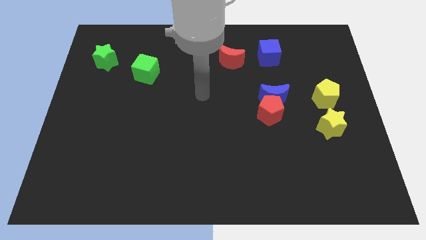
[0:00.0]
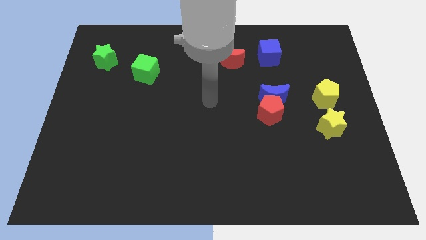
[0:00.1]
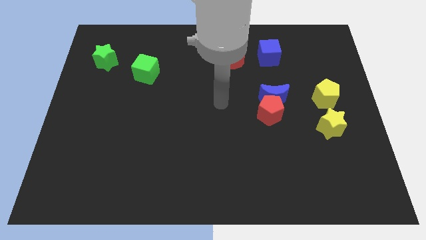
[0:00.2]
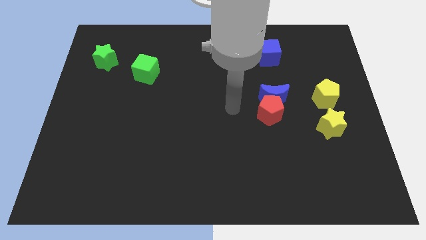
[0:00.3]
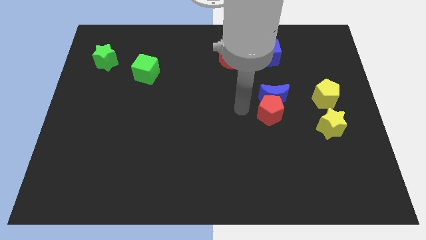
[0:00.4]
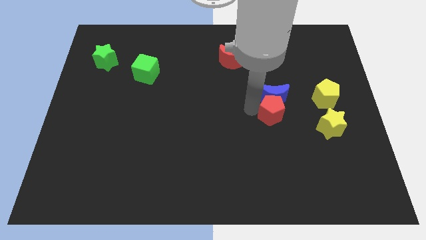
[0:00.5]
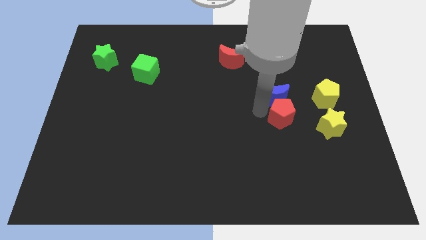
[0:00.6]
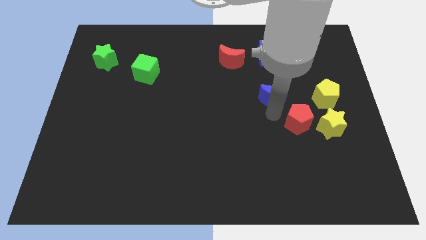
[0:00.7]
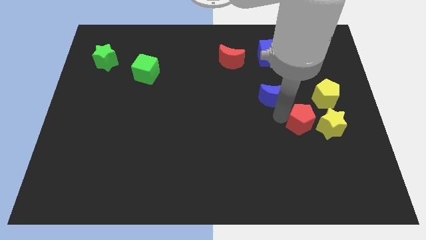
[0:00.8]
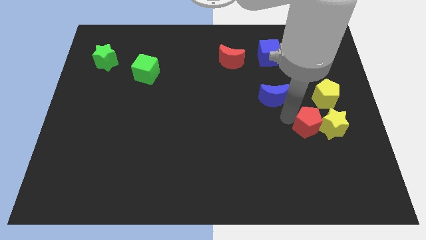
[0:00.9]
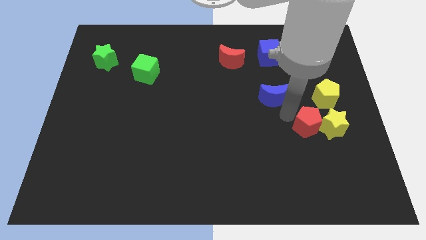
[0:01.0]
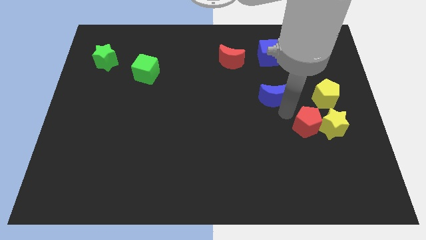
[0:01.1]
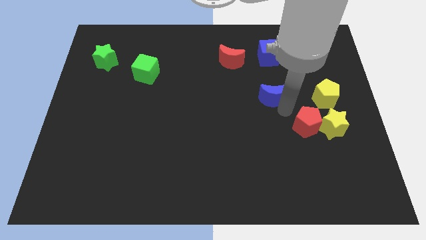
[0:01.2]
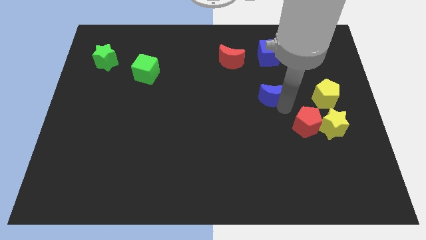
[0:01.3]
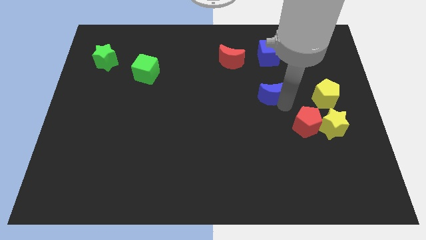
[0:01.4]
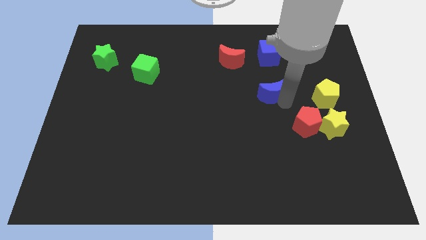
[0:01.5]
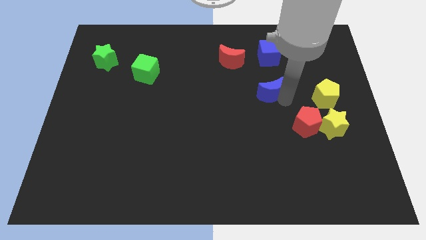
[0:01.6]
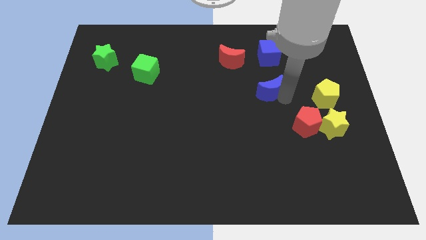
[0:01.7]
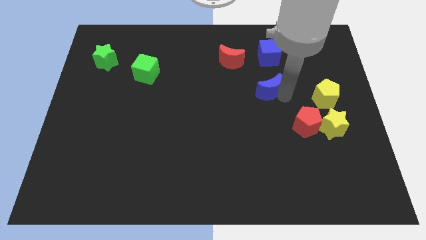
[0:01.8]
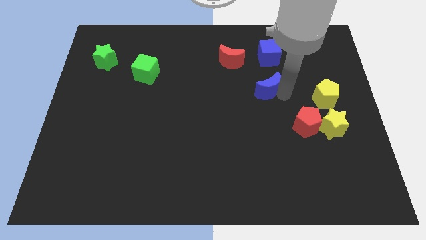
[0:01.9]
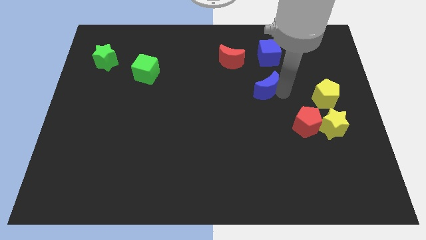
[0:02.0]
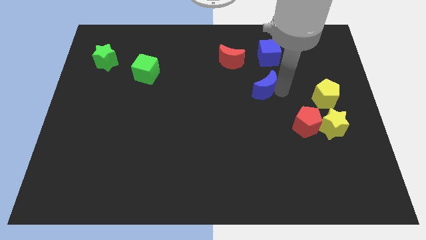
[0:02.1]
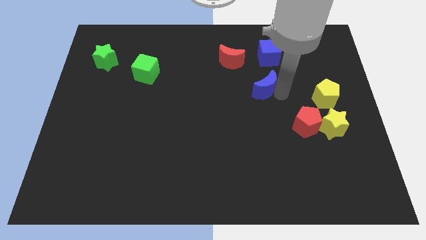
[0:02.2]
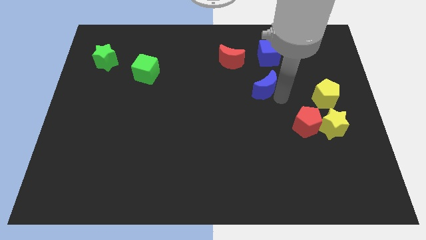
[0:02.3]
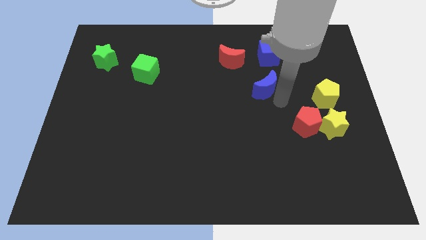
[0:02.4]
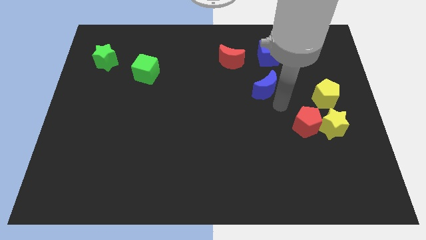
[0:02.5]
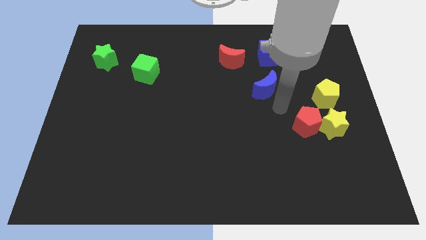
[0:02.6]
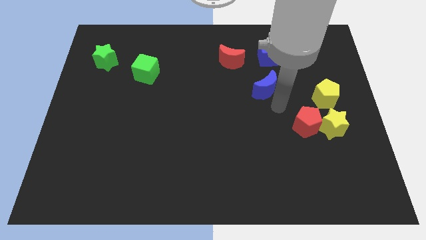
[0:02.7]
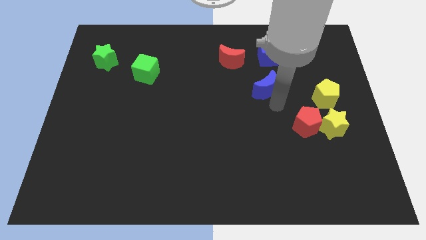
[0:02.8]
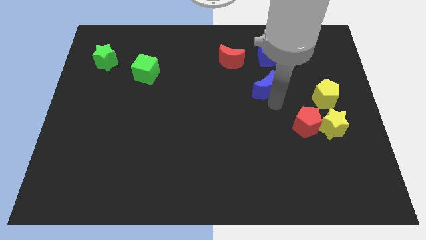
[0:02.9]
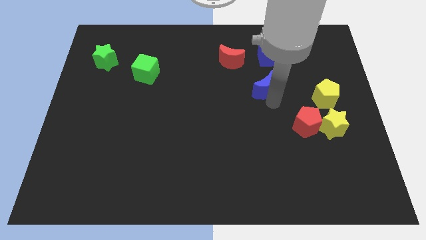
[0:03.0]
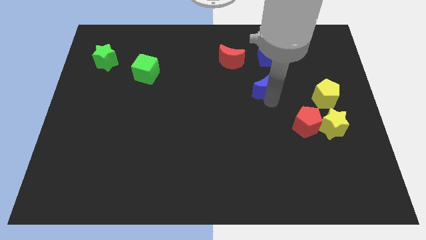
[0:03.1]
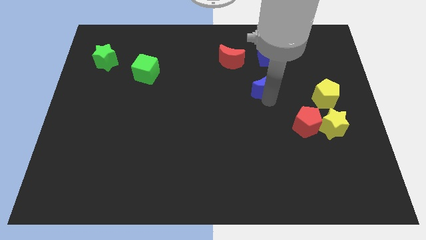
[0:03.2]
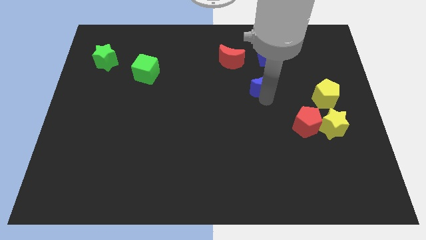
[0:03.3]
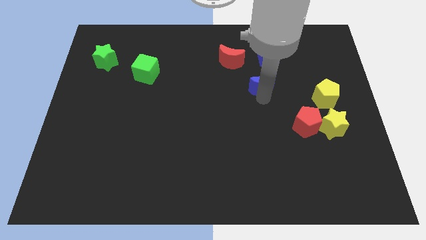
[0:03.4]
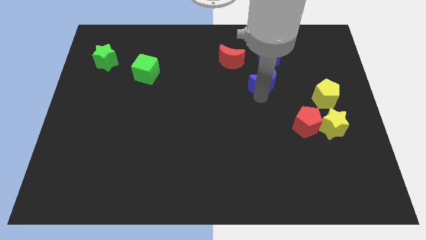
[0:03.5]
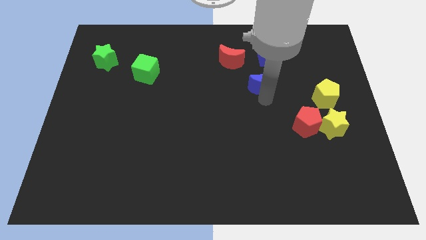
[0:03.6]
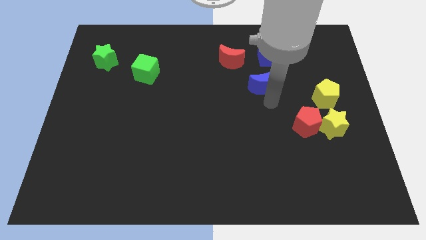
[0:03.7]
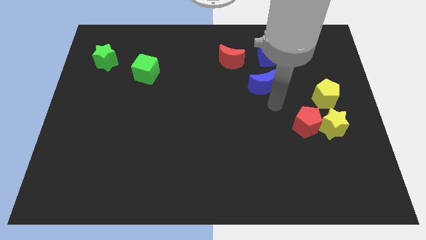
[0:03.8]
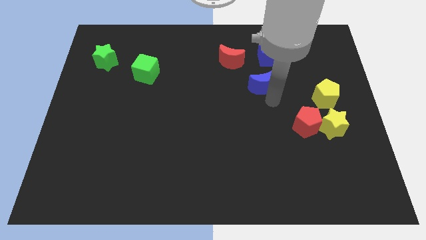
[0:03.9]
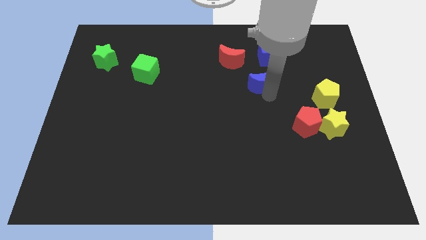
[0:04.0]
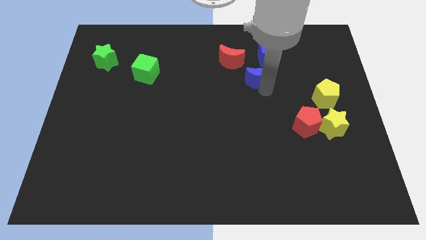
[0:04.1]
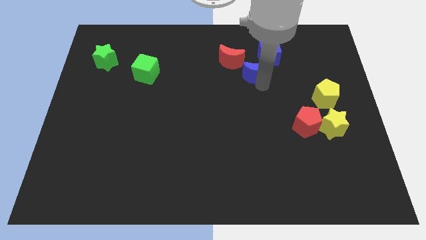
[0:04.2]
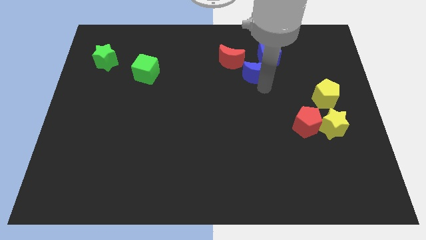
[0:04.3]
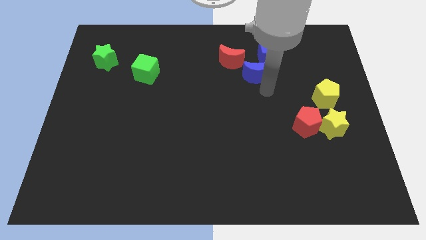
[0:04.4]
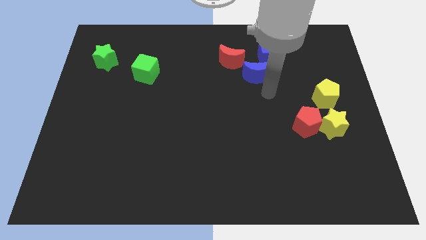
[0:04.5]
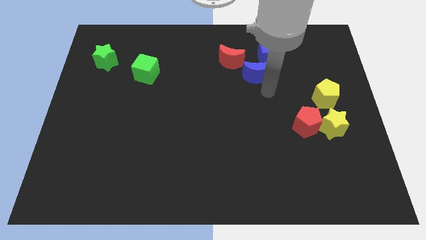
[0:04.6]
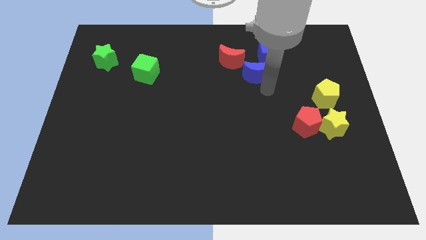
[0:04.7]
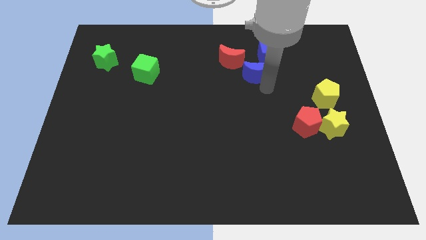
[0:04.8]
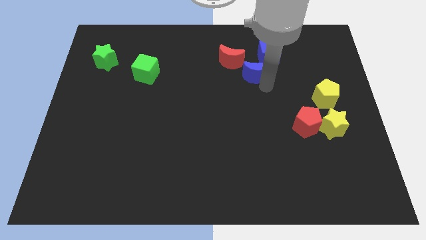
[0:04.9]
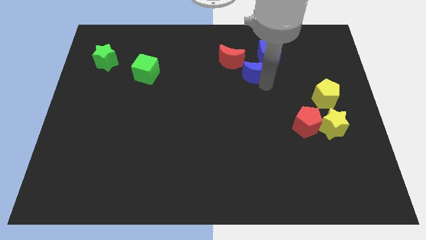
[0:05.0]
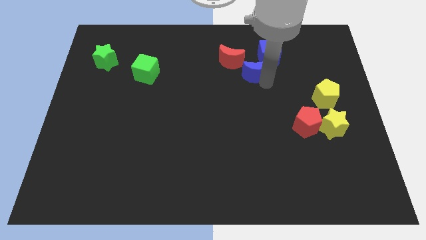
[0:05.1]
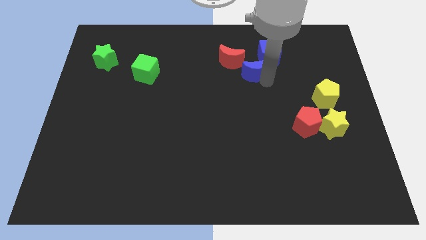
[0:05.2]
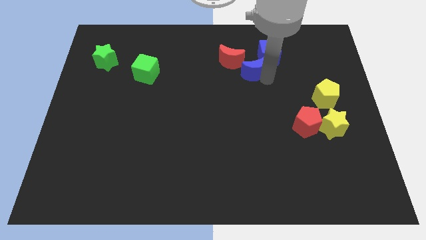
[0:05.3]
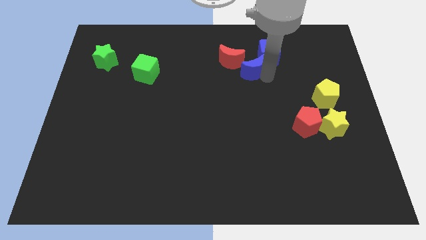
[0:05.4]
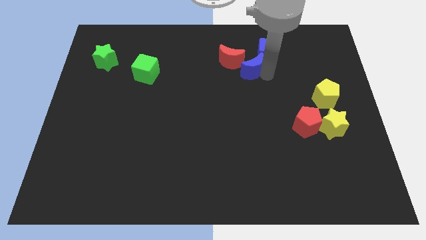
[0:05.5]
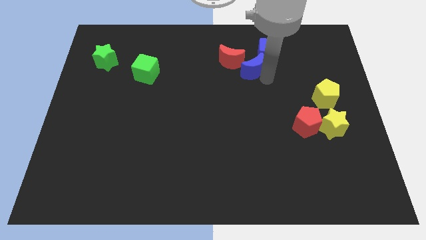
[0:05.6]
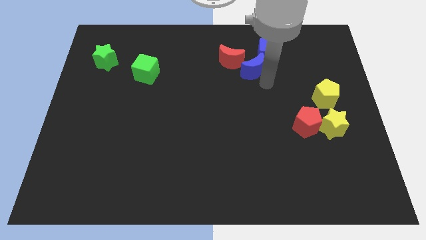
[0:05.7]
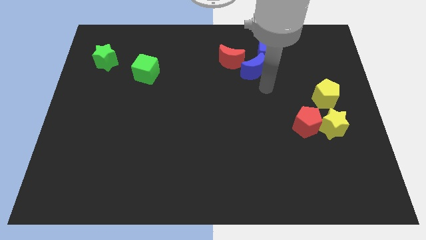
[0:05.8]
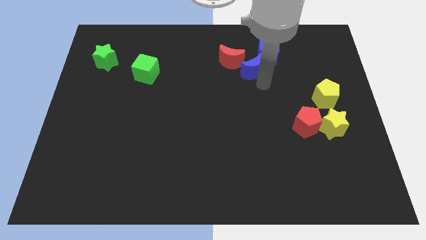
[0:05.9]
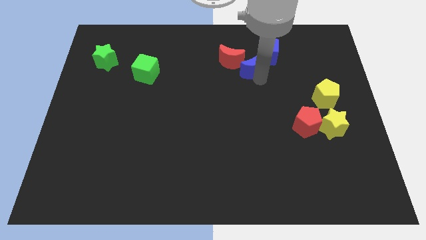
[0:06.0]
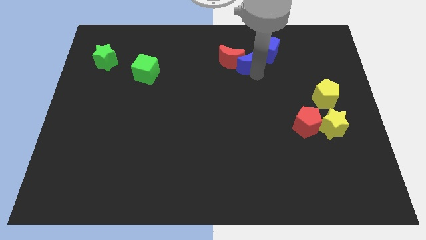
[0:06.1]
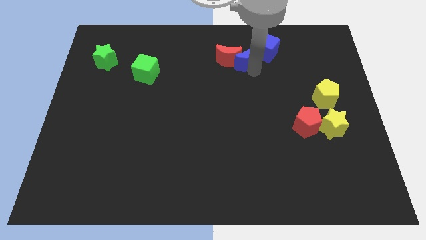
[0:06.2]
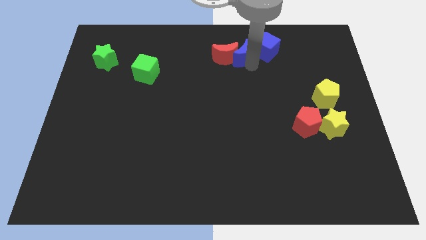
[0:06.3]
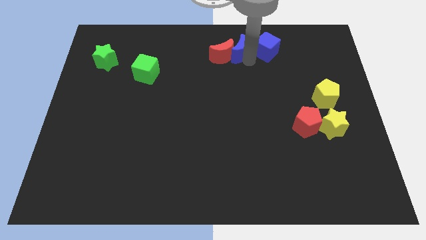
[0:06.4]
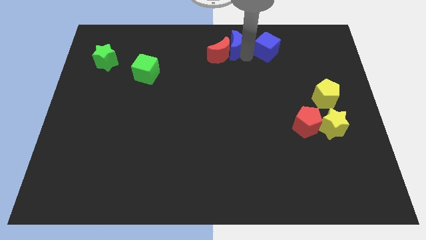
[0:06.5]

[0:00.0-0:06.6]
slide the blue moon to the top

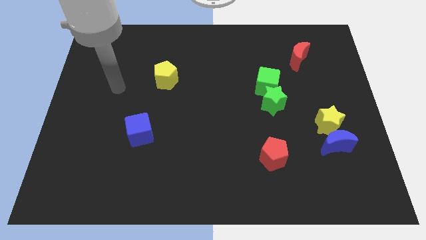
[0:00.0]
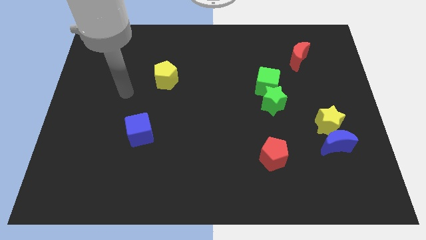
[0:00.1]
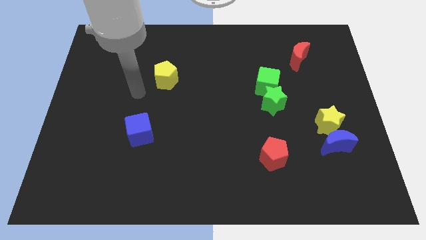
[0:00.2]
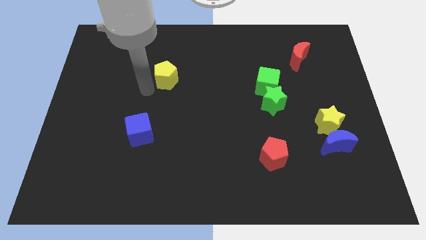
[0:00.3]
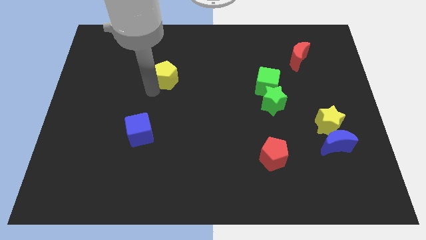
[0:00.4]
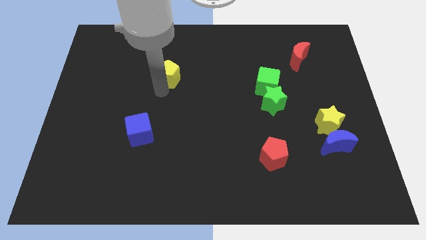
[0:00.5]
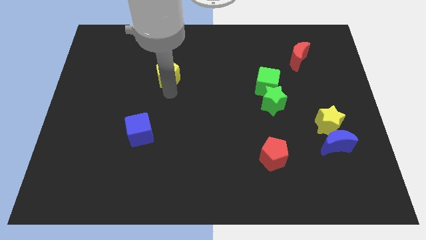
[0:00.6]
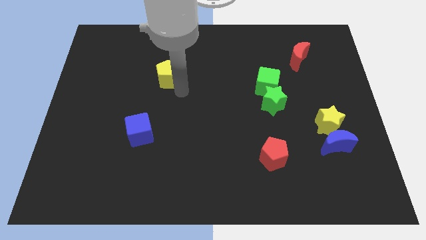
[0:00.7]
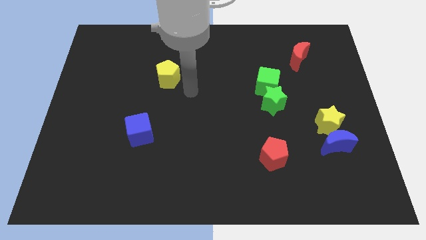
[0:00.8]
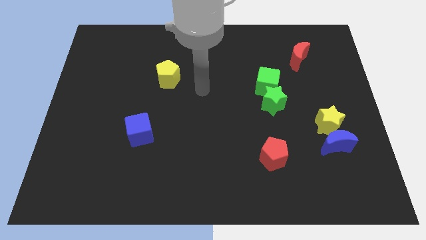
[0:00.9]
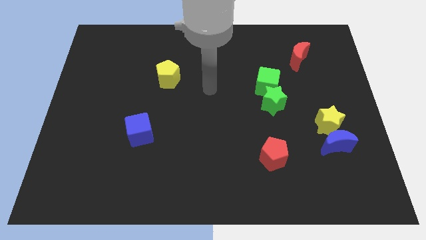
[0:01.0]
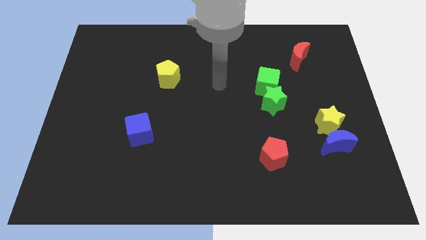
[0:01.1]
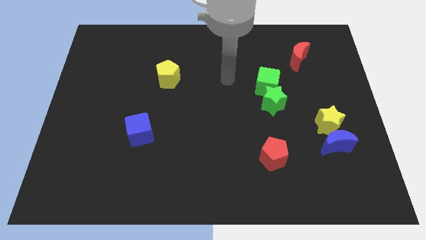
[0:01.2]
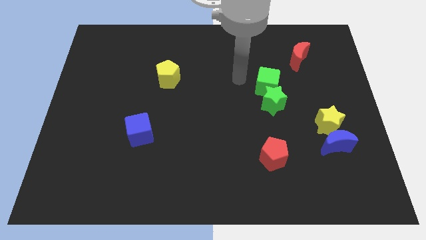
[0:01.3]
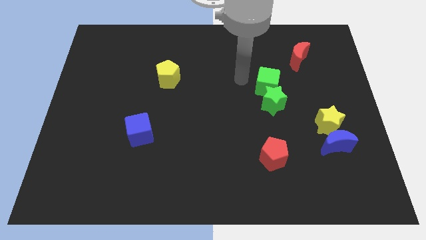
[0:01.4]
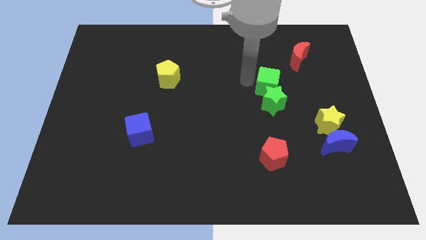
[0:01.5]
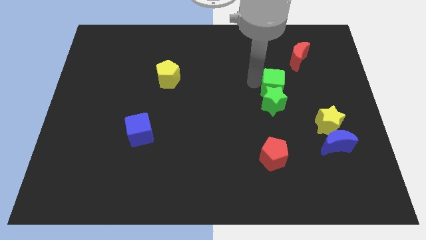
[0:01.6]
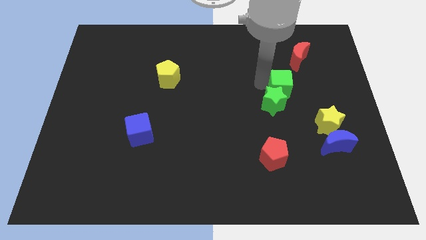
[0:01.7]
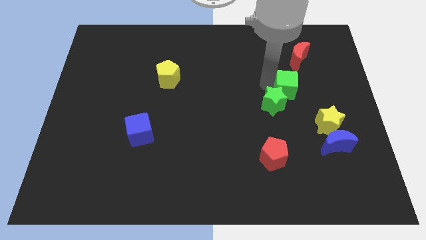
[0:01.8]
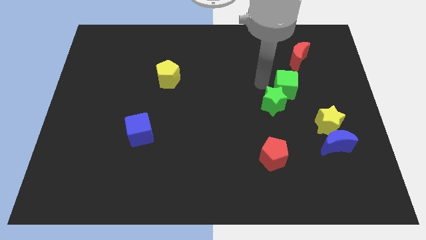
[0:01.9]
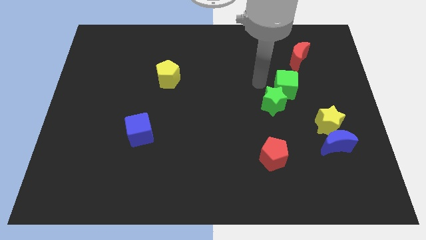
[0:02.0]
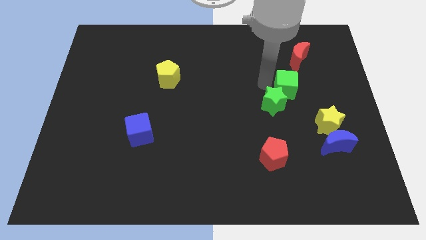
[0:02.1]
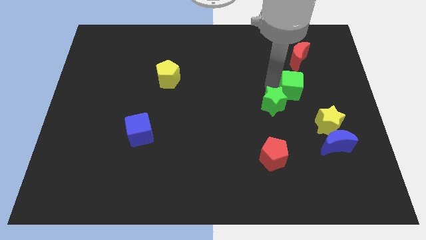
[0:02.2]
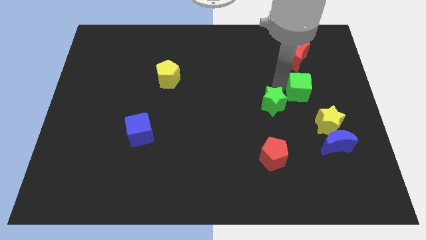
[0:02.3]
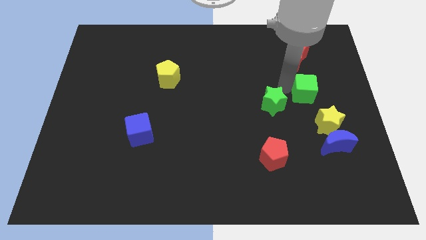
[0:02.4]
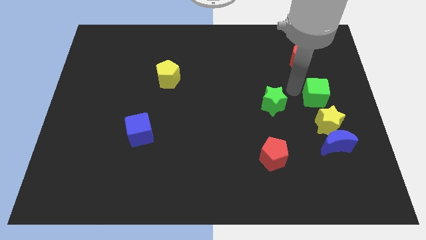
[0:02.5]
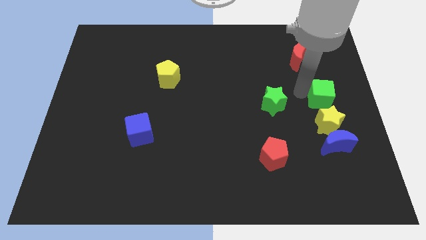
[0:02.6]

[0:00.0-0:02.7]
put the green cube to the right side of the board
